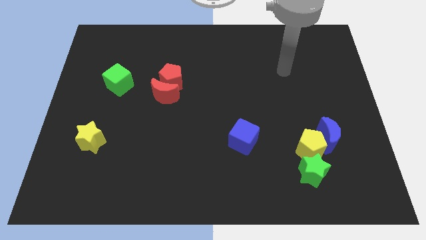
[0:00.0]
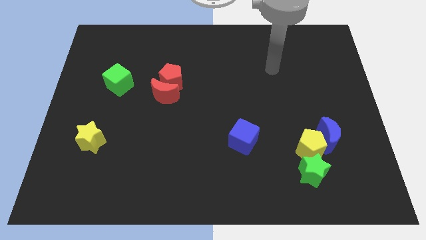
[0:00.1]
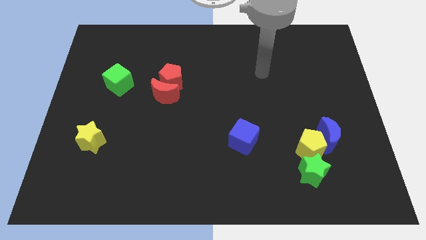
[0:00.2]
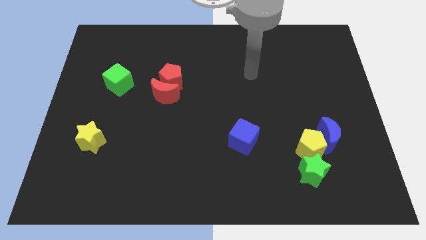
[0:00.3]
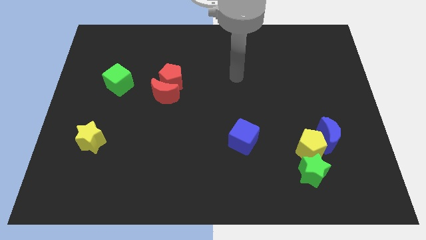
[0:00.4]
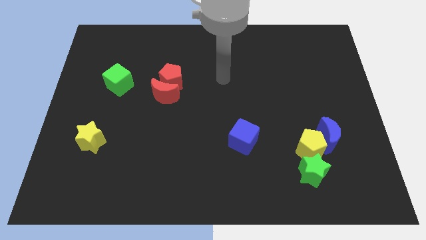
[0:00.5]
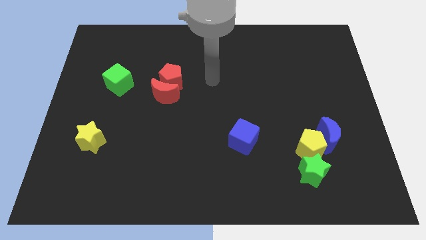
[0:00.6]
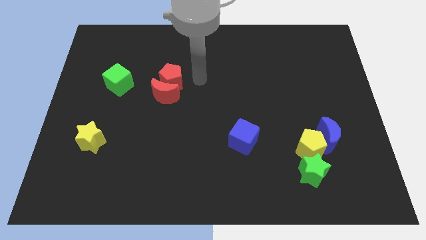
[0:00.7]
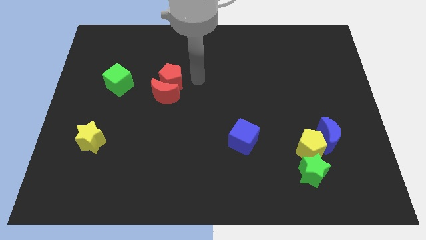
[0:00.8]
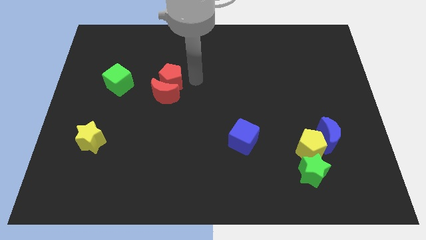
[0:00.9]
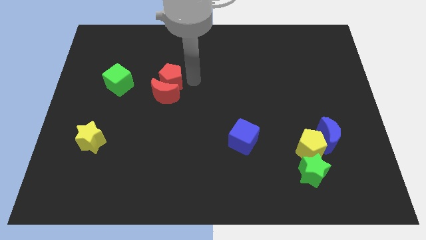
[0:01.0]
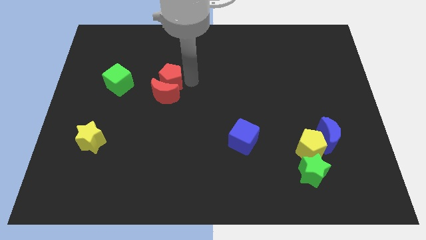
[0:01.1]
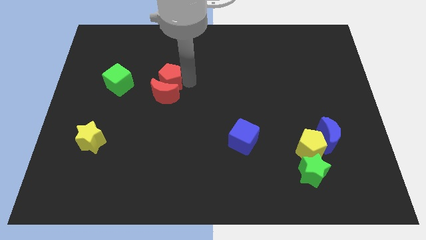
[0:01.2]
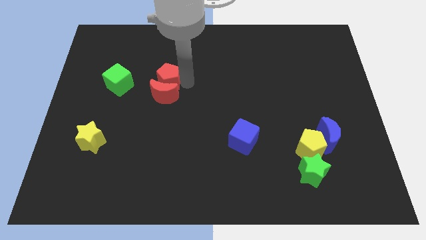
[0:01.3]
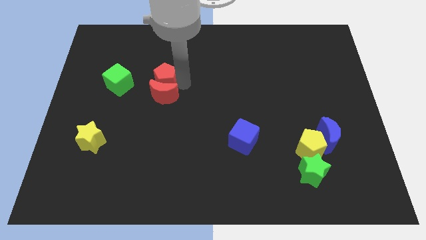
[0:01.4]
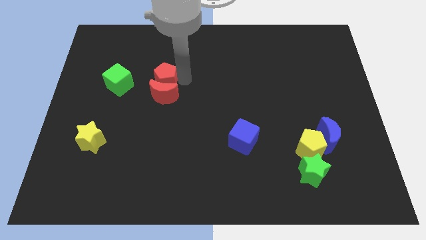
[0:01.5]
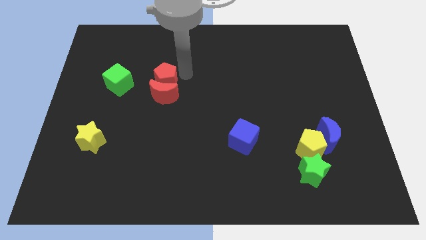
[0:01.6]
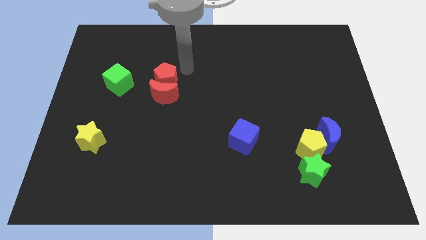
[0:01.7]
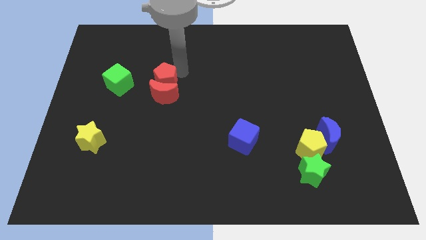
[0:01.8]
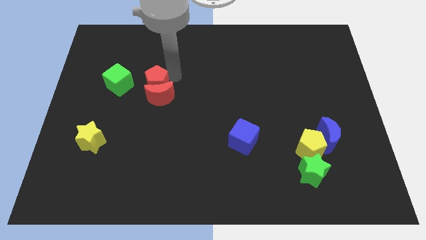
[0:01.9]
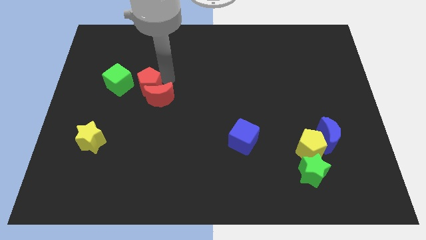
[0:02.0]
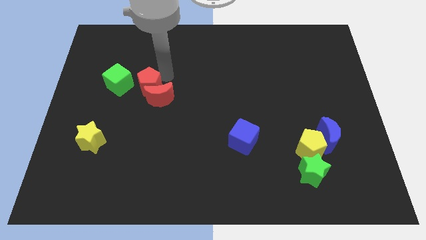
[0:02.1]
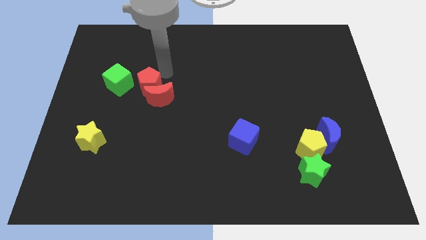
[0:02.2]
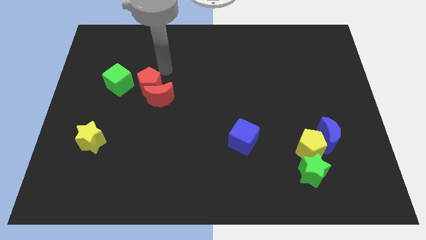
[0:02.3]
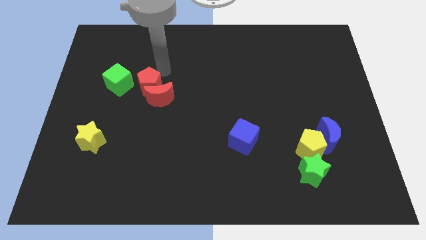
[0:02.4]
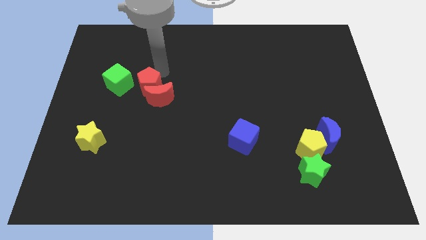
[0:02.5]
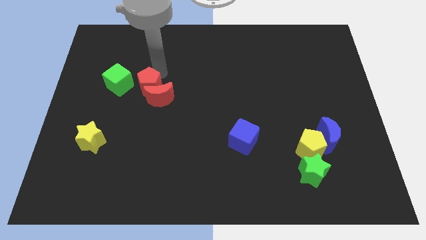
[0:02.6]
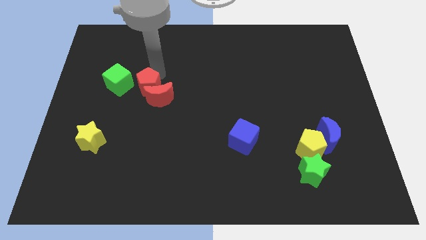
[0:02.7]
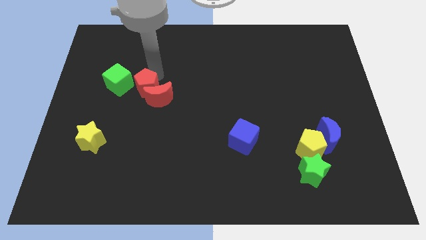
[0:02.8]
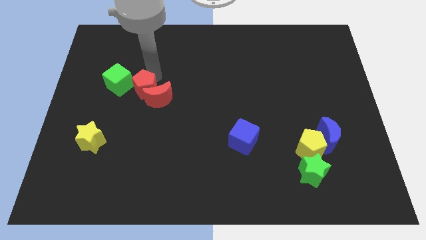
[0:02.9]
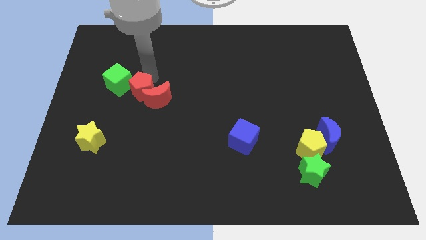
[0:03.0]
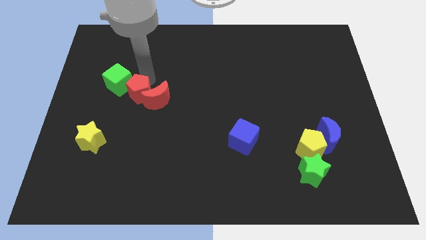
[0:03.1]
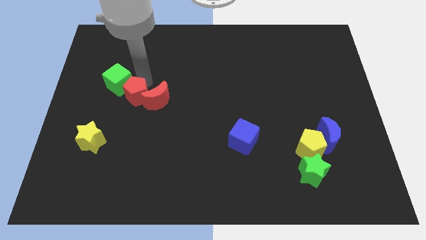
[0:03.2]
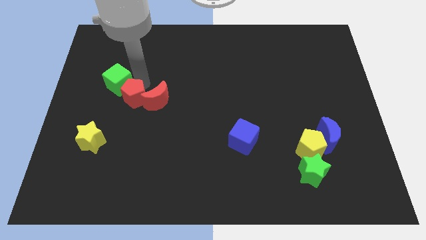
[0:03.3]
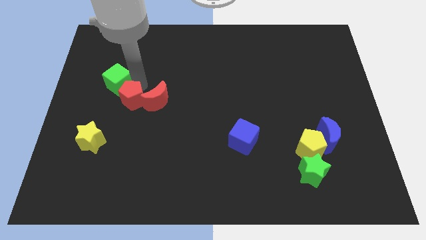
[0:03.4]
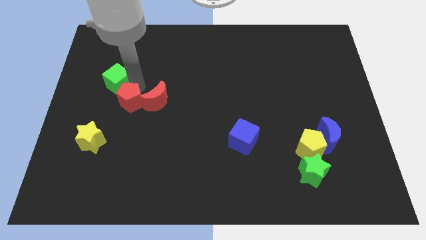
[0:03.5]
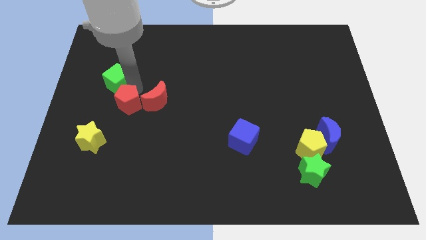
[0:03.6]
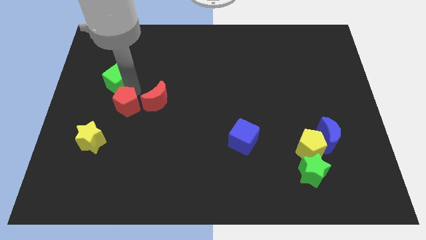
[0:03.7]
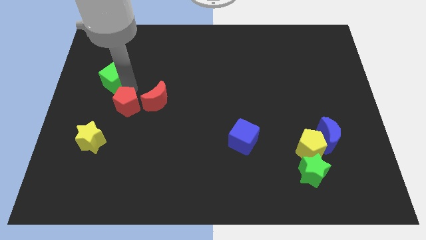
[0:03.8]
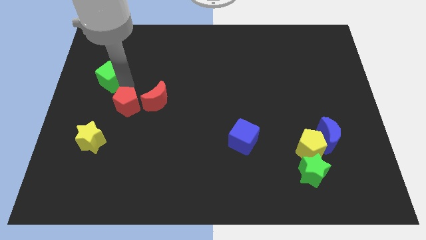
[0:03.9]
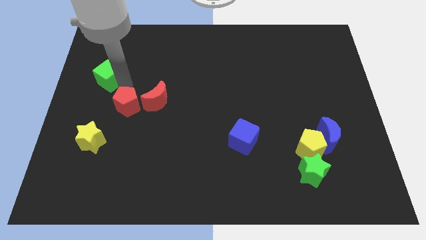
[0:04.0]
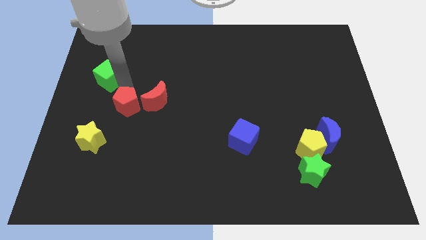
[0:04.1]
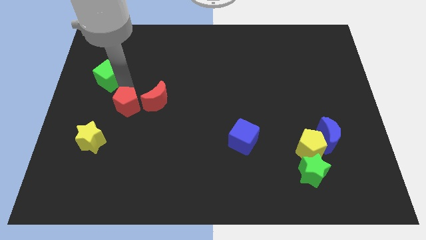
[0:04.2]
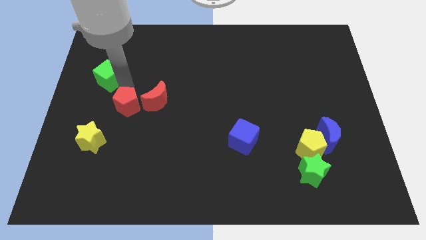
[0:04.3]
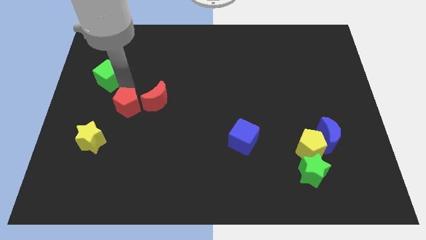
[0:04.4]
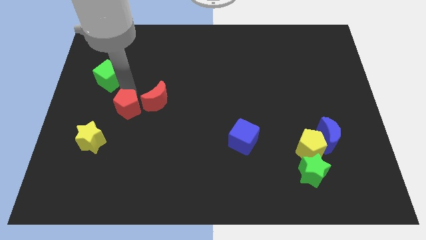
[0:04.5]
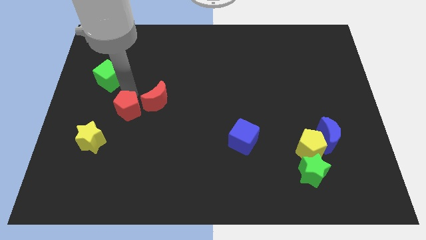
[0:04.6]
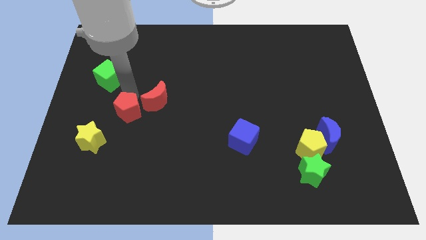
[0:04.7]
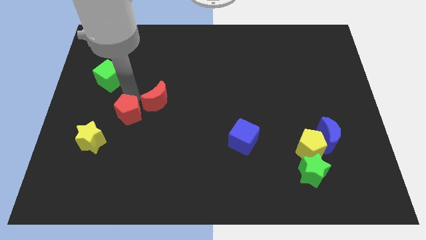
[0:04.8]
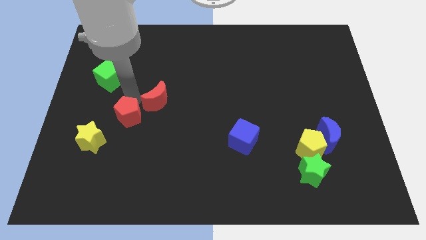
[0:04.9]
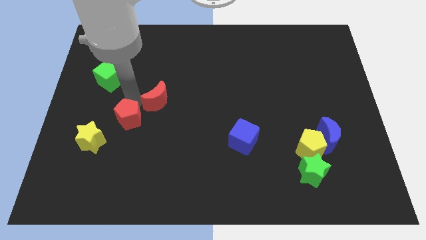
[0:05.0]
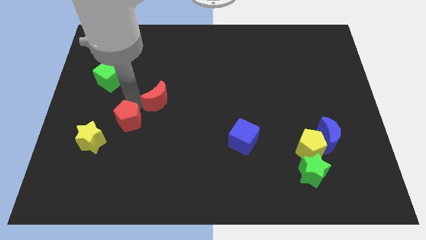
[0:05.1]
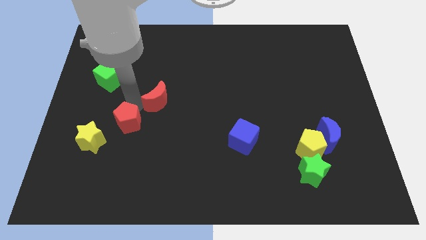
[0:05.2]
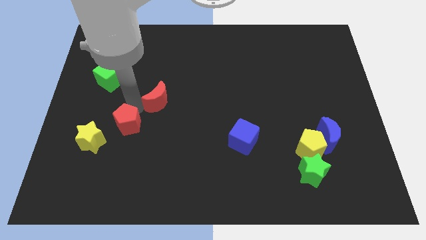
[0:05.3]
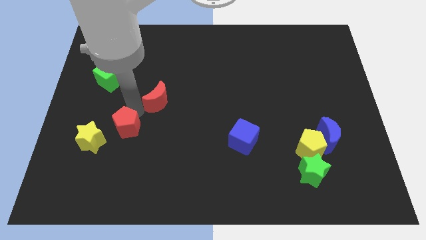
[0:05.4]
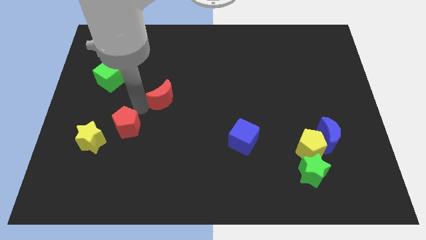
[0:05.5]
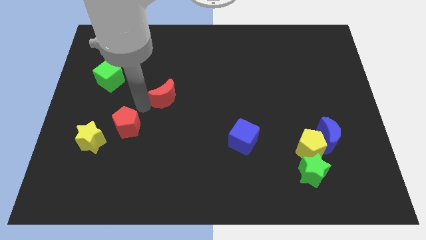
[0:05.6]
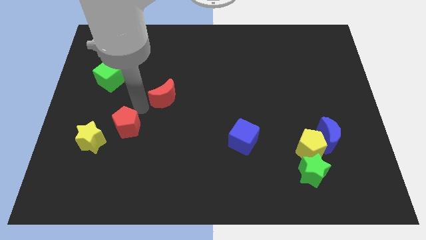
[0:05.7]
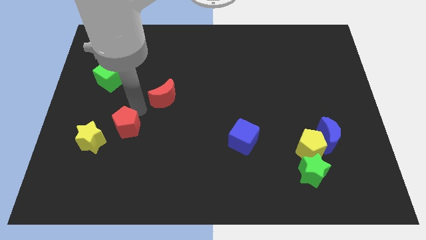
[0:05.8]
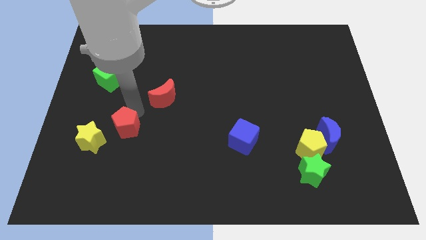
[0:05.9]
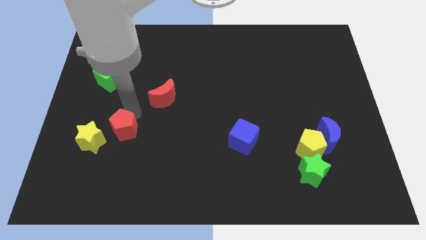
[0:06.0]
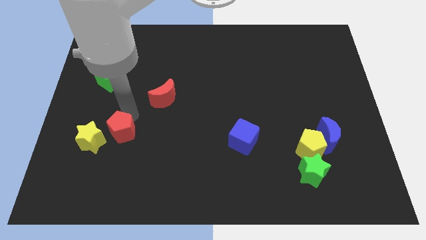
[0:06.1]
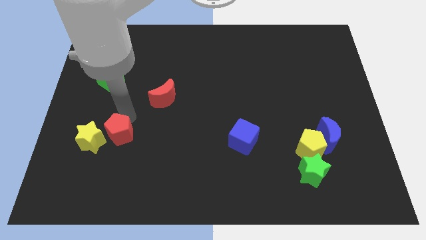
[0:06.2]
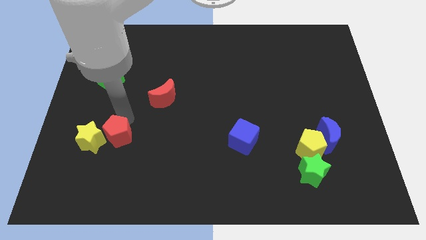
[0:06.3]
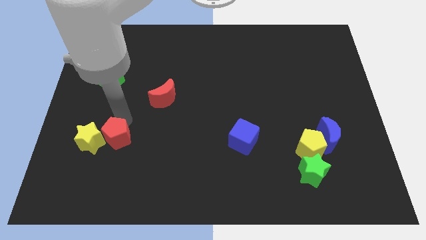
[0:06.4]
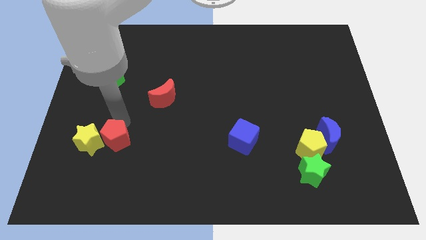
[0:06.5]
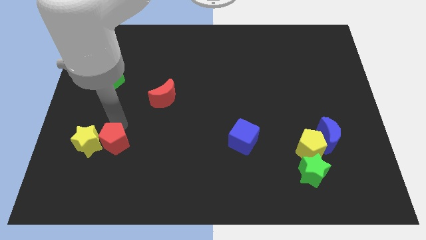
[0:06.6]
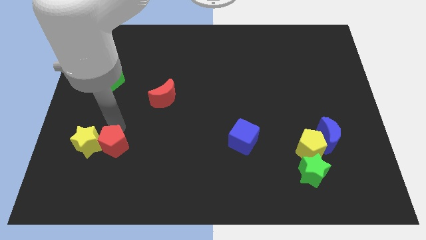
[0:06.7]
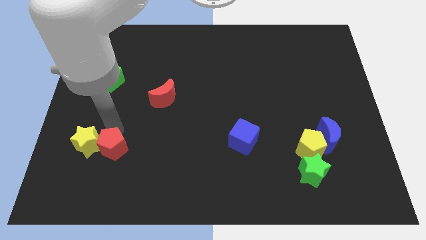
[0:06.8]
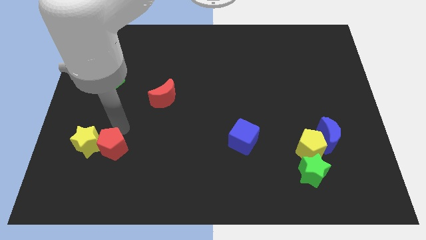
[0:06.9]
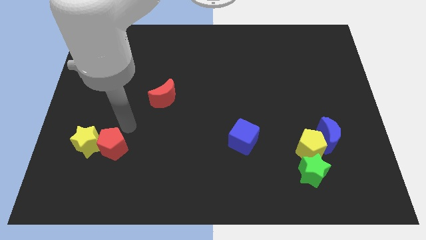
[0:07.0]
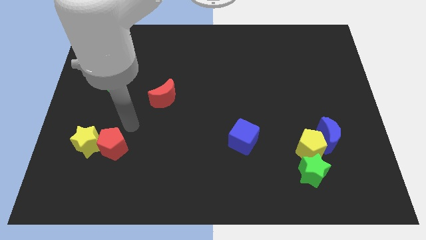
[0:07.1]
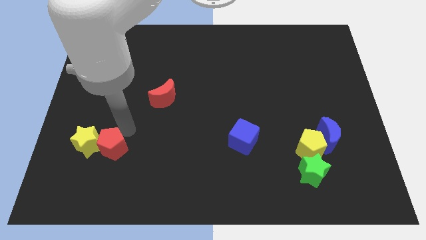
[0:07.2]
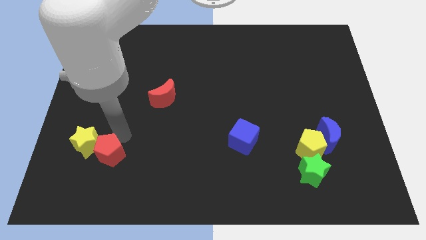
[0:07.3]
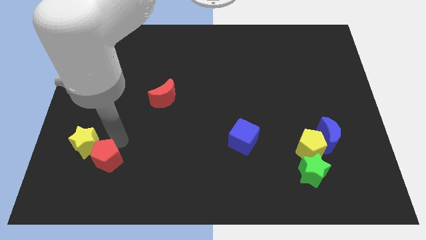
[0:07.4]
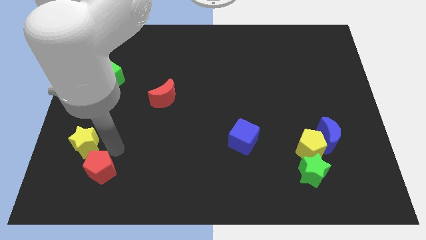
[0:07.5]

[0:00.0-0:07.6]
slide the red pentagon below the yellow star
